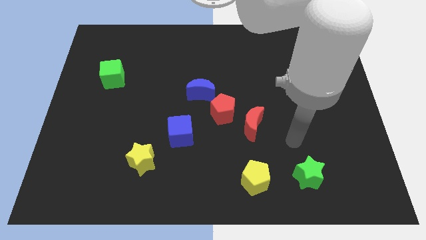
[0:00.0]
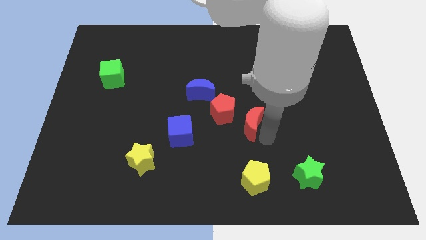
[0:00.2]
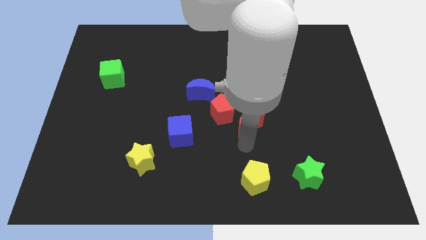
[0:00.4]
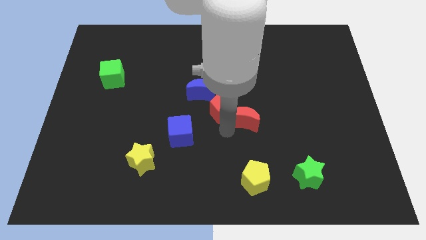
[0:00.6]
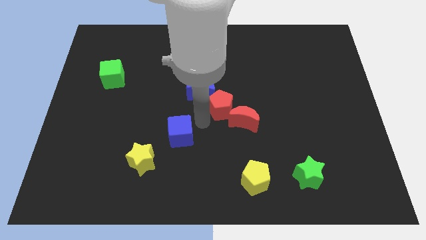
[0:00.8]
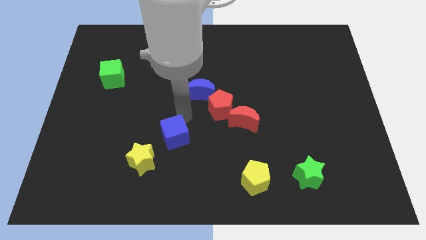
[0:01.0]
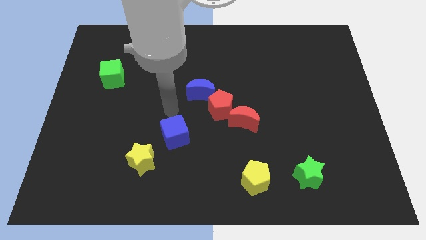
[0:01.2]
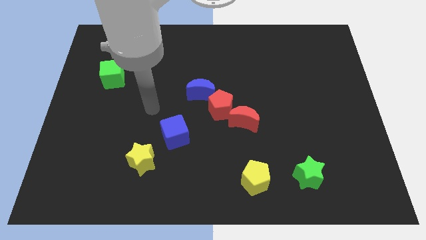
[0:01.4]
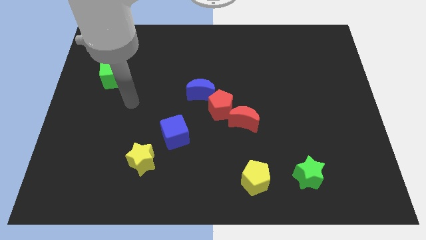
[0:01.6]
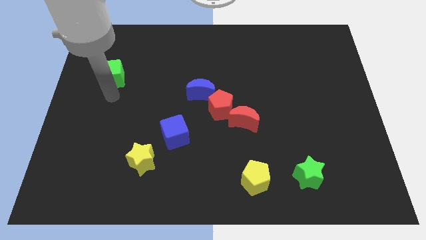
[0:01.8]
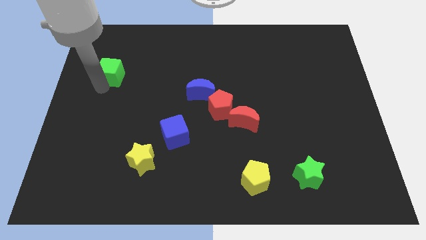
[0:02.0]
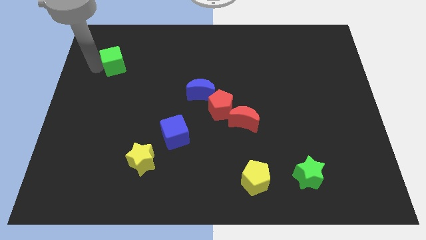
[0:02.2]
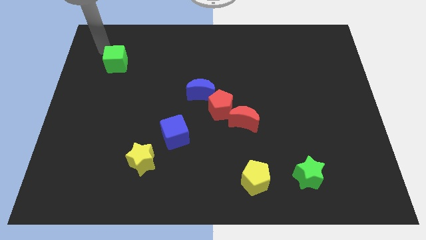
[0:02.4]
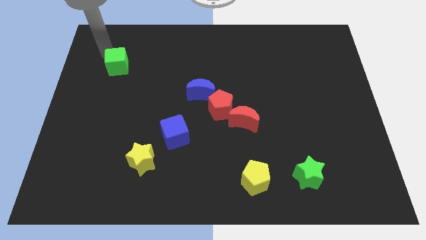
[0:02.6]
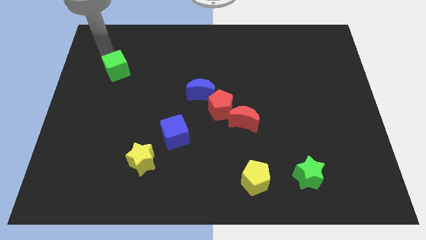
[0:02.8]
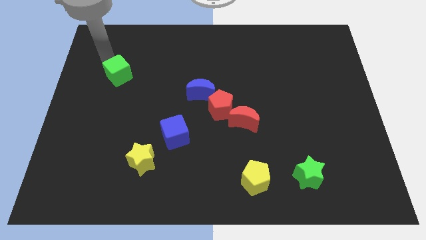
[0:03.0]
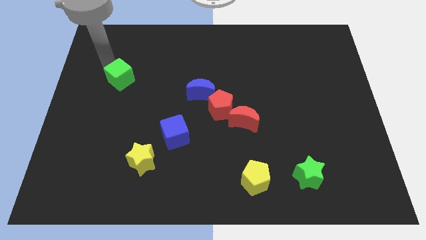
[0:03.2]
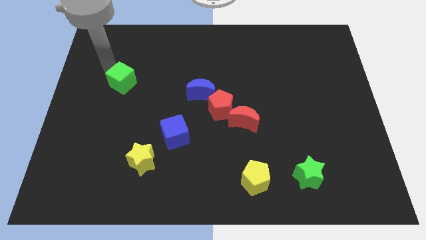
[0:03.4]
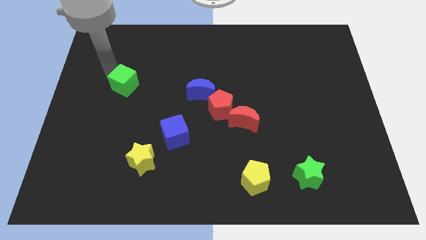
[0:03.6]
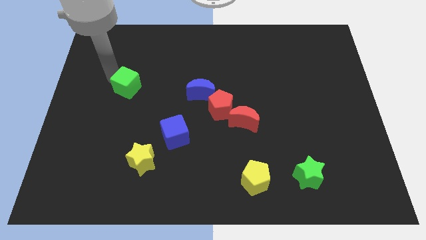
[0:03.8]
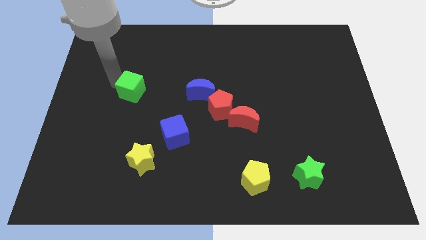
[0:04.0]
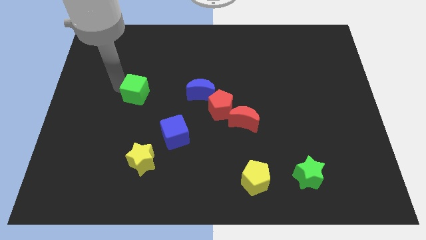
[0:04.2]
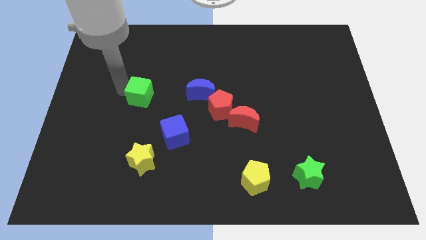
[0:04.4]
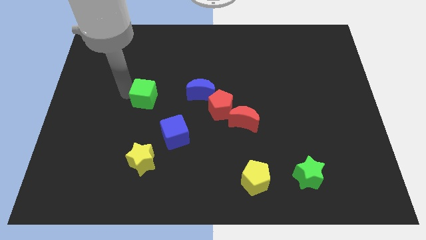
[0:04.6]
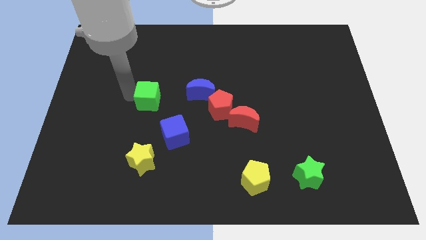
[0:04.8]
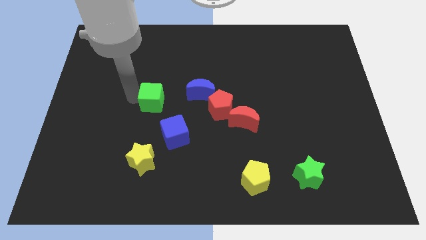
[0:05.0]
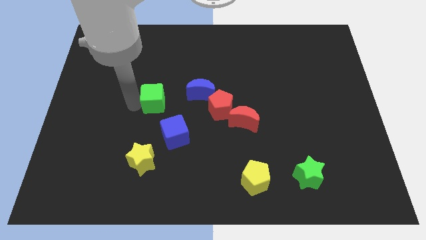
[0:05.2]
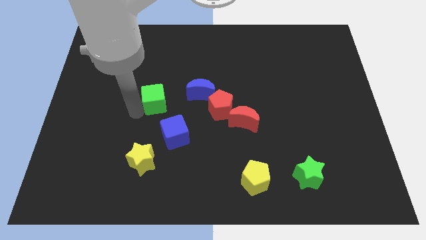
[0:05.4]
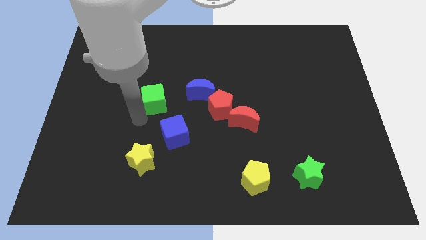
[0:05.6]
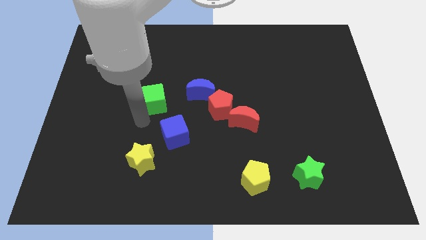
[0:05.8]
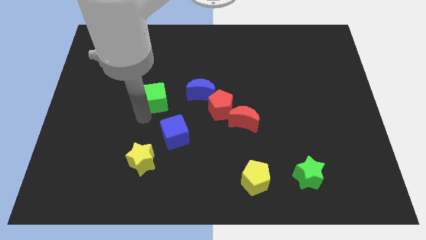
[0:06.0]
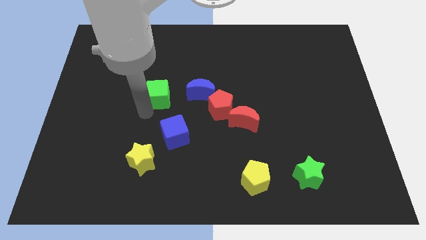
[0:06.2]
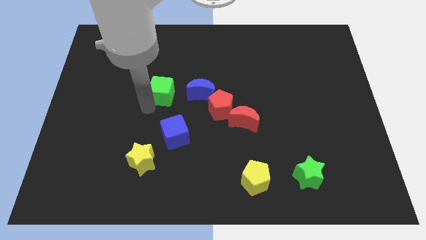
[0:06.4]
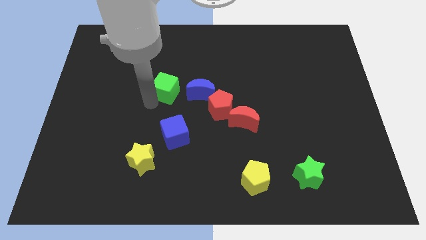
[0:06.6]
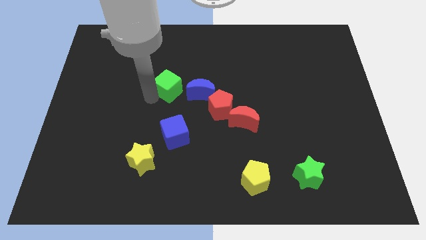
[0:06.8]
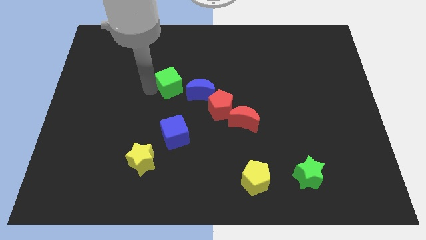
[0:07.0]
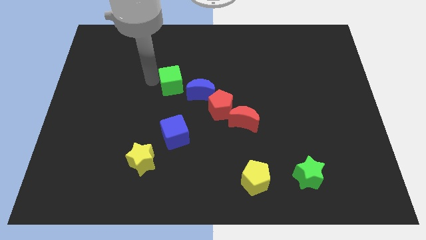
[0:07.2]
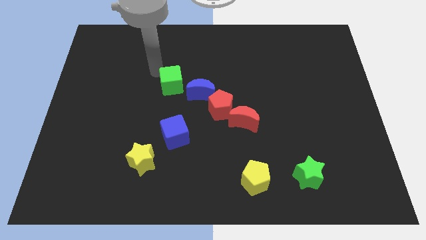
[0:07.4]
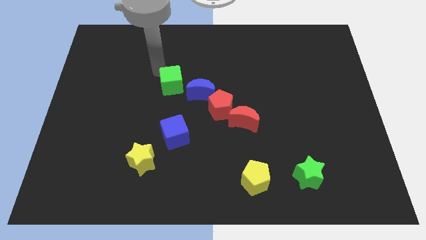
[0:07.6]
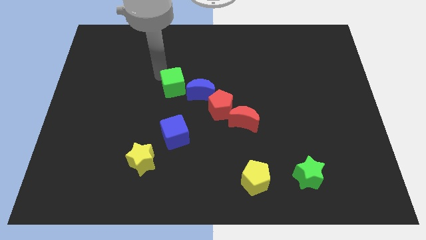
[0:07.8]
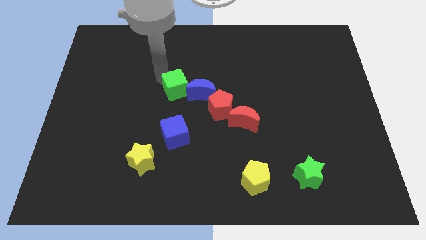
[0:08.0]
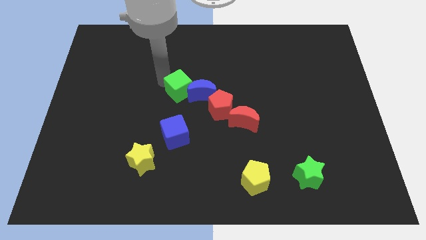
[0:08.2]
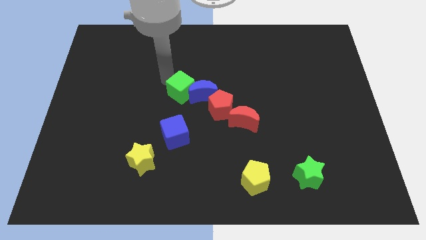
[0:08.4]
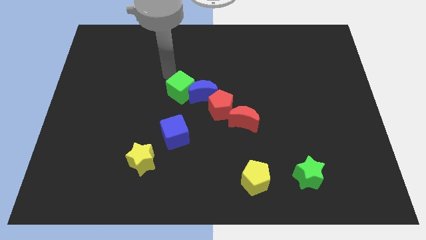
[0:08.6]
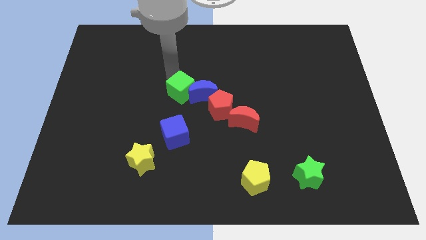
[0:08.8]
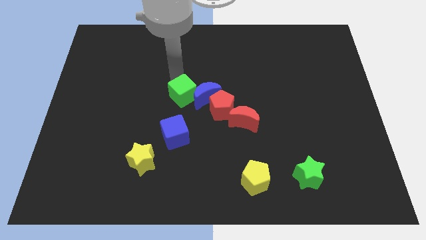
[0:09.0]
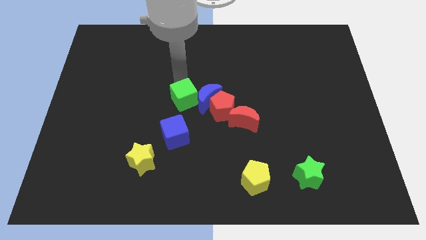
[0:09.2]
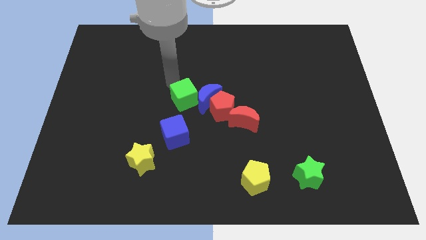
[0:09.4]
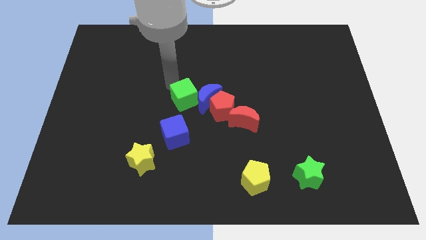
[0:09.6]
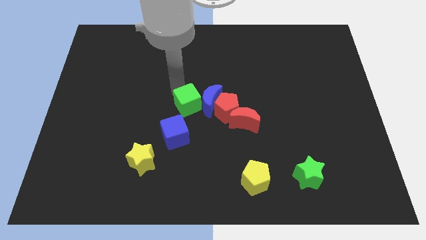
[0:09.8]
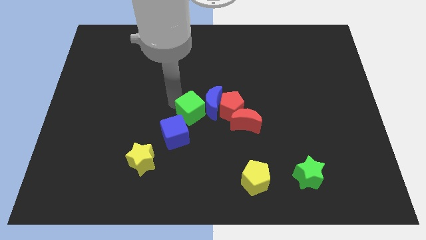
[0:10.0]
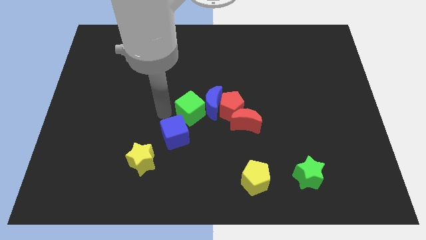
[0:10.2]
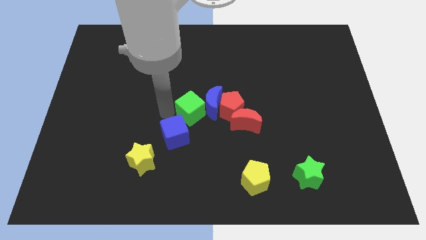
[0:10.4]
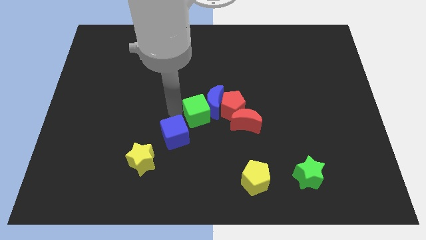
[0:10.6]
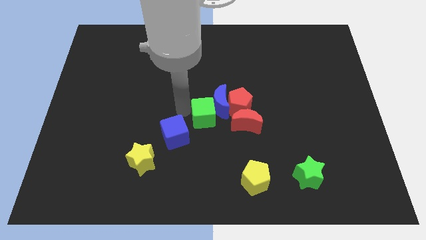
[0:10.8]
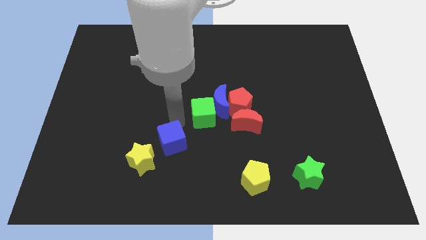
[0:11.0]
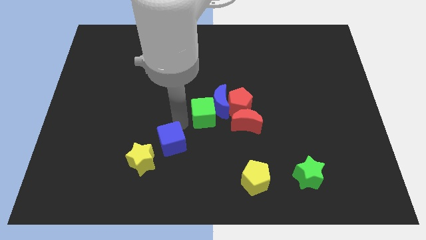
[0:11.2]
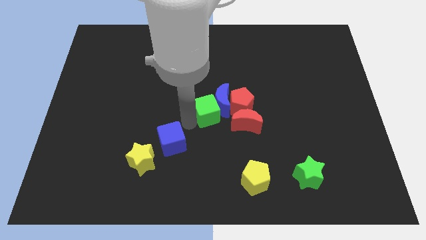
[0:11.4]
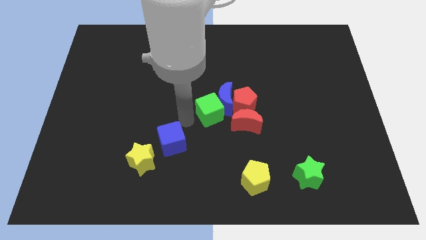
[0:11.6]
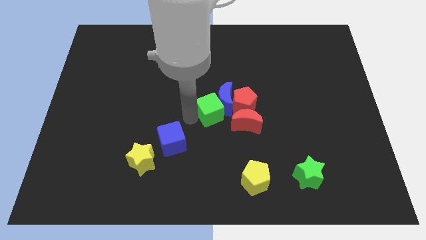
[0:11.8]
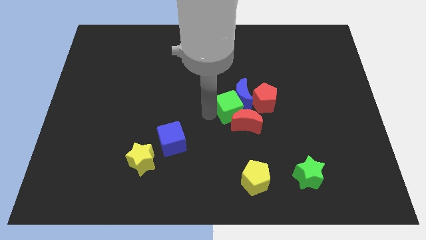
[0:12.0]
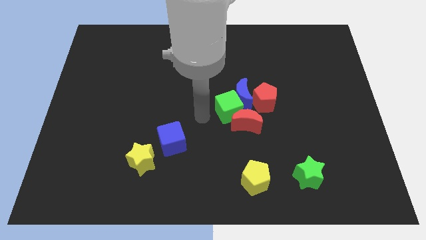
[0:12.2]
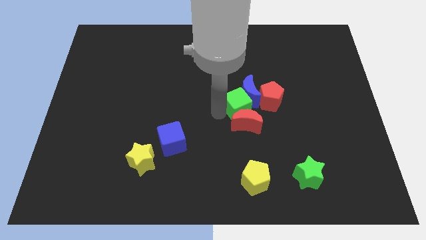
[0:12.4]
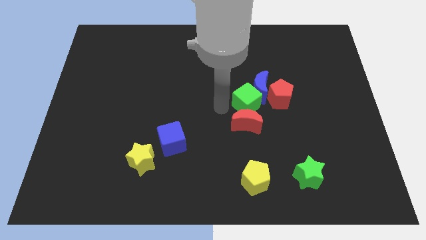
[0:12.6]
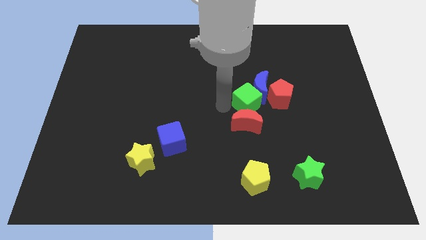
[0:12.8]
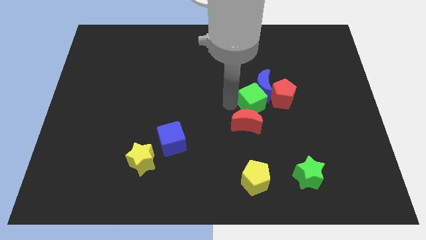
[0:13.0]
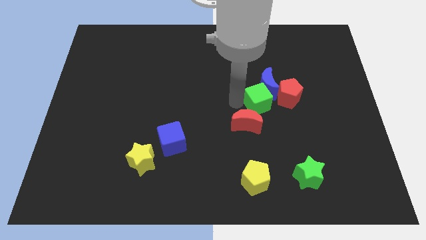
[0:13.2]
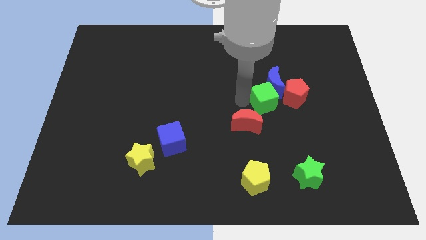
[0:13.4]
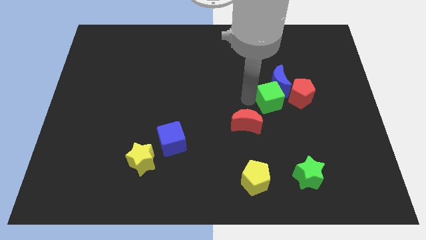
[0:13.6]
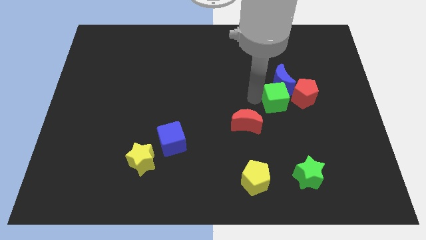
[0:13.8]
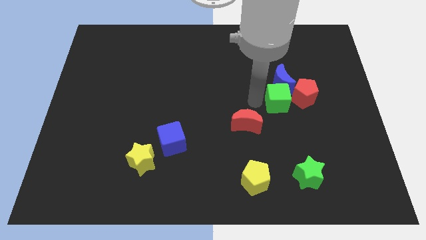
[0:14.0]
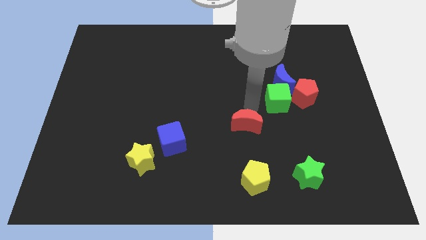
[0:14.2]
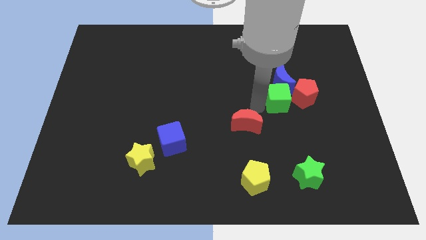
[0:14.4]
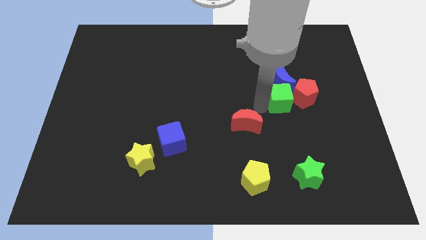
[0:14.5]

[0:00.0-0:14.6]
move the green cube to the red pentagon

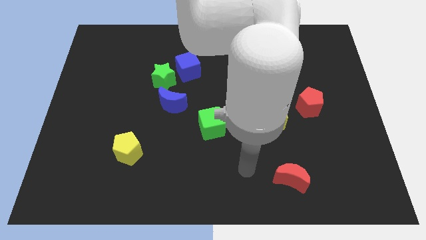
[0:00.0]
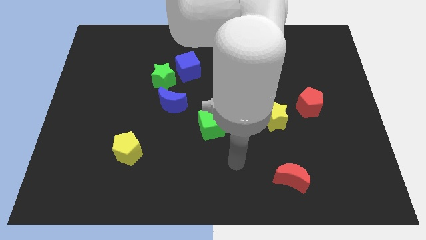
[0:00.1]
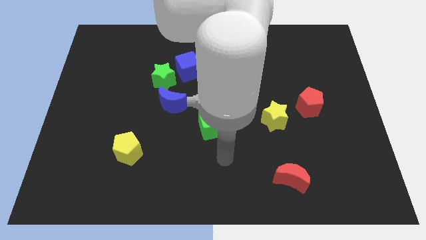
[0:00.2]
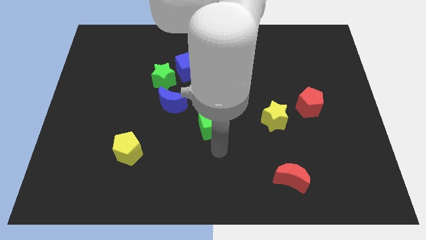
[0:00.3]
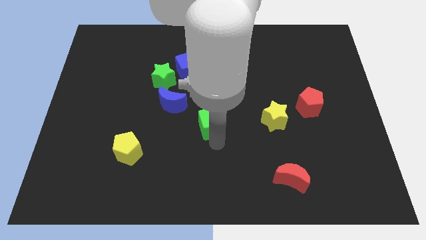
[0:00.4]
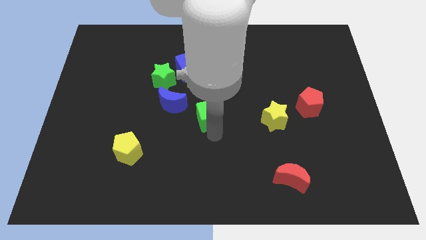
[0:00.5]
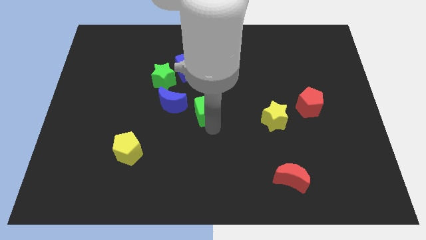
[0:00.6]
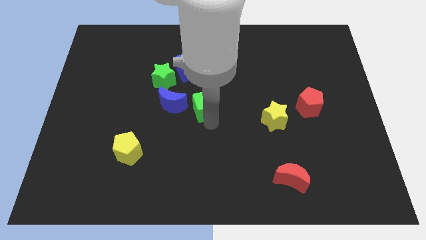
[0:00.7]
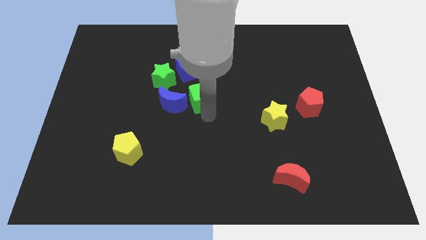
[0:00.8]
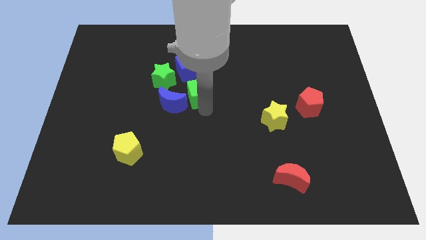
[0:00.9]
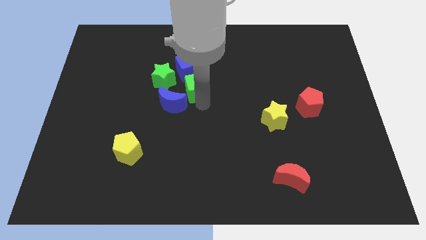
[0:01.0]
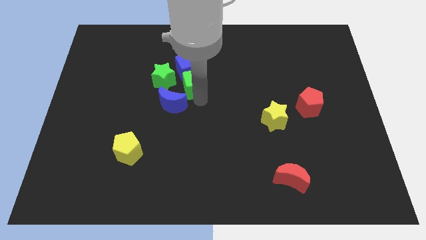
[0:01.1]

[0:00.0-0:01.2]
put the green cube towards the blue cube
